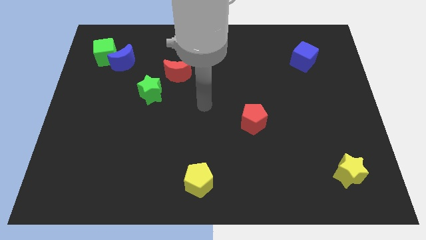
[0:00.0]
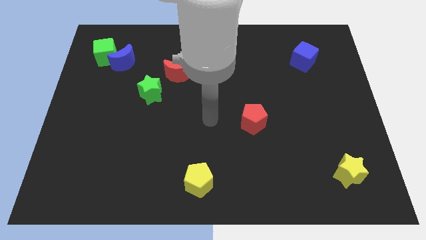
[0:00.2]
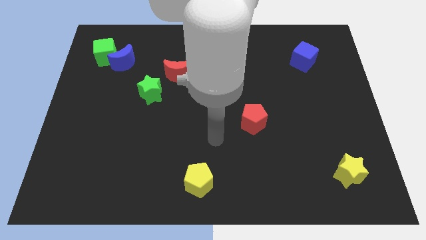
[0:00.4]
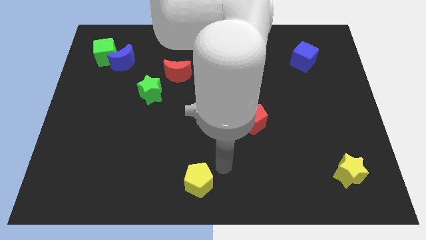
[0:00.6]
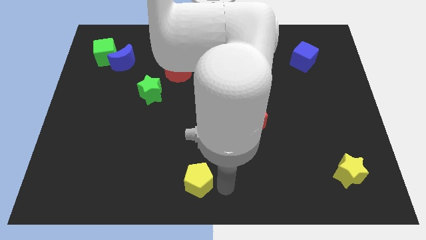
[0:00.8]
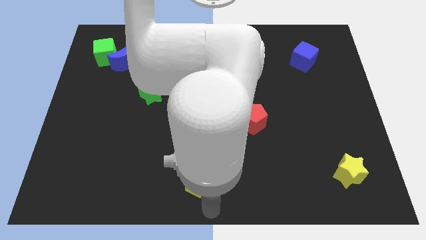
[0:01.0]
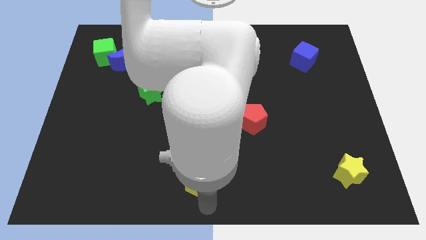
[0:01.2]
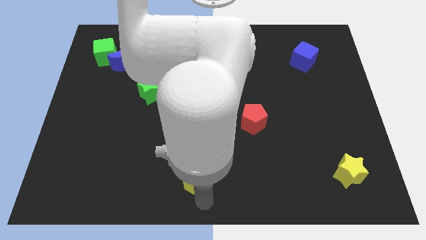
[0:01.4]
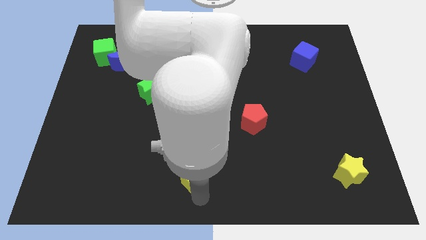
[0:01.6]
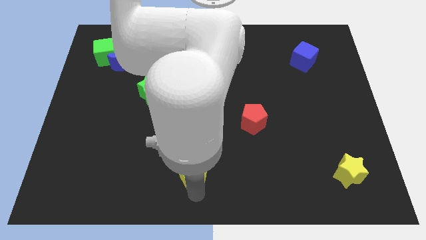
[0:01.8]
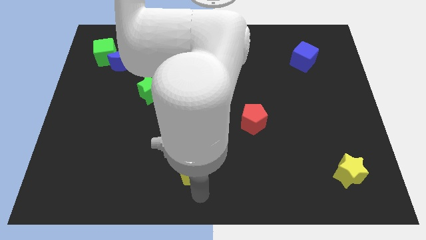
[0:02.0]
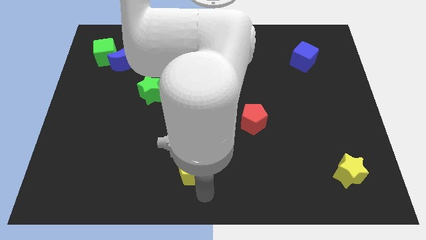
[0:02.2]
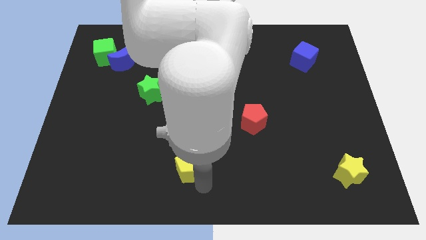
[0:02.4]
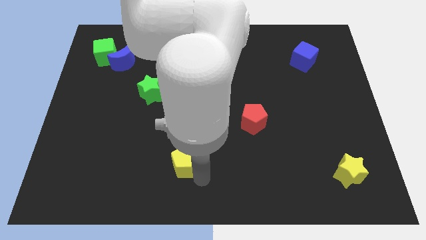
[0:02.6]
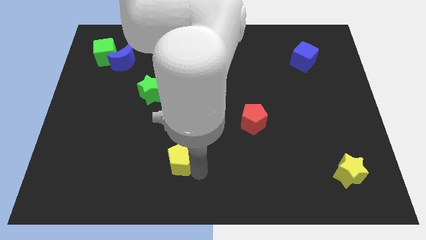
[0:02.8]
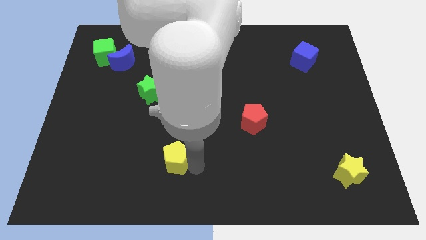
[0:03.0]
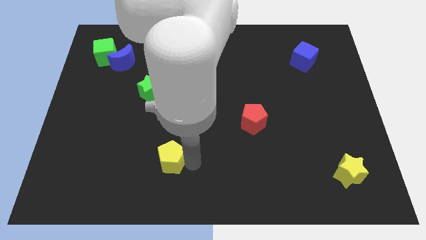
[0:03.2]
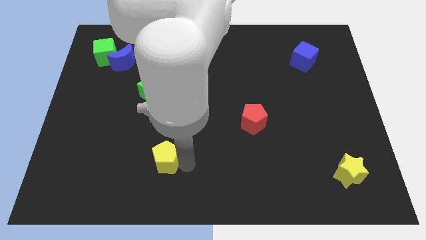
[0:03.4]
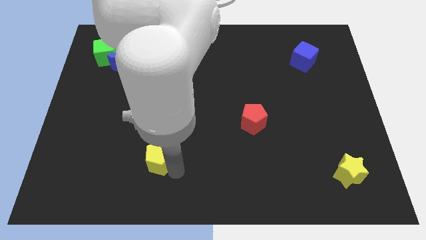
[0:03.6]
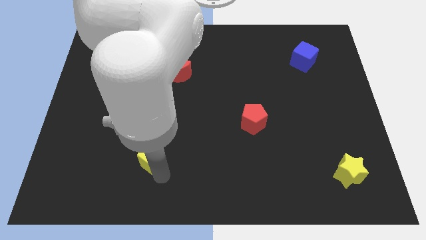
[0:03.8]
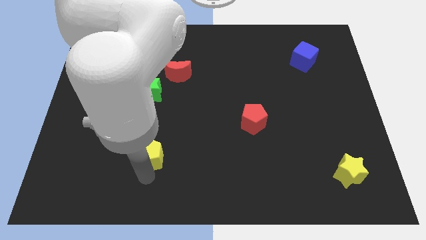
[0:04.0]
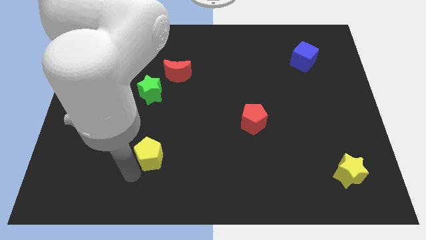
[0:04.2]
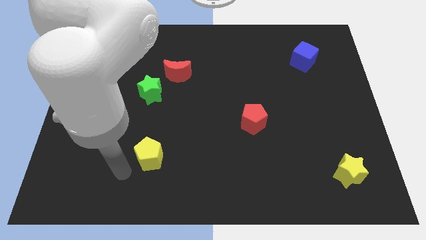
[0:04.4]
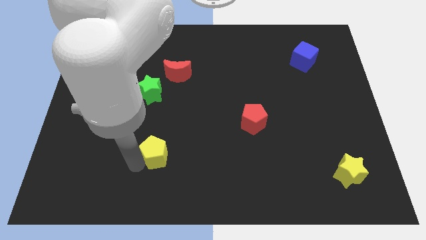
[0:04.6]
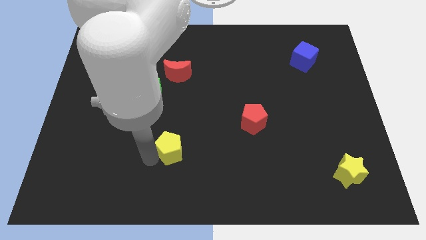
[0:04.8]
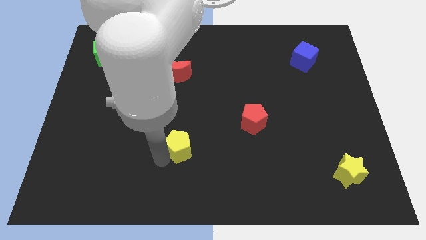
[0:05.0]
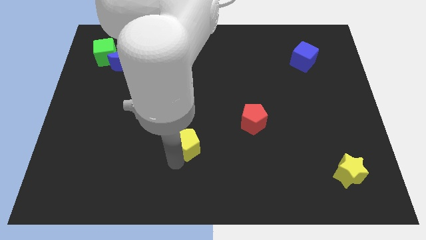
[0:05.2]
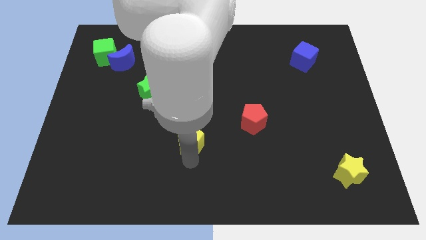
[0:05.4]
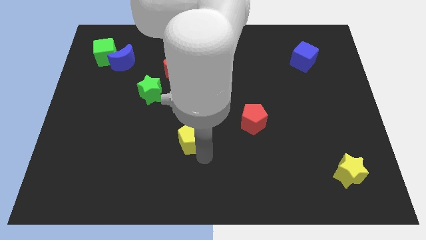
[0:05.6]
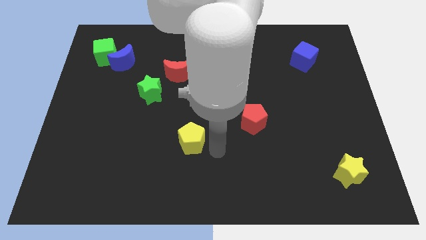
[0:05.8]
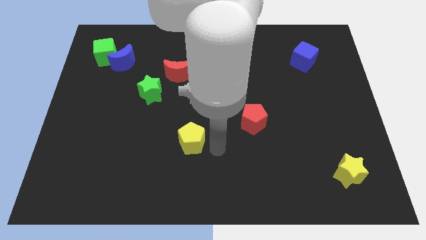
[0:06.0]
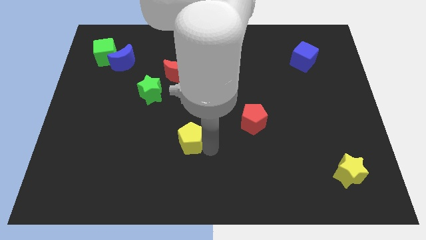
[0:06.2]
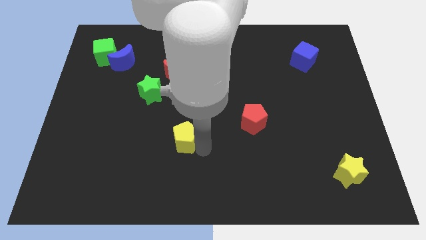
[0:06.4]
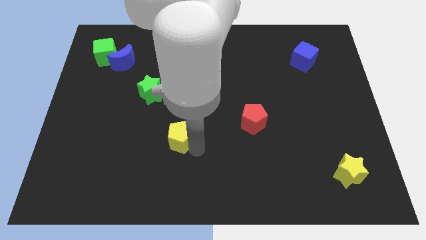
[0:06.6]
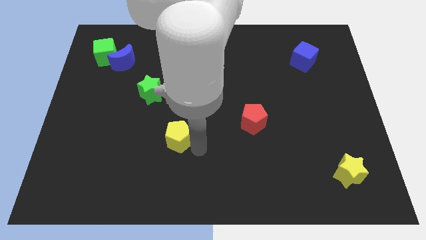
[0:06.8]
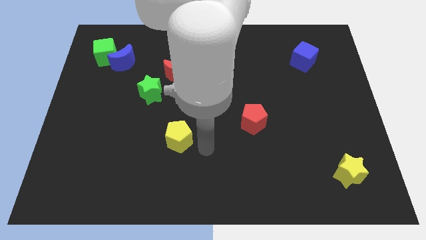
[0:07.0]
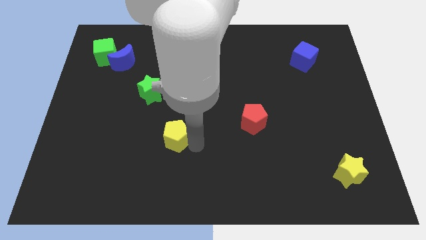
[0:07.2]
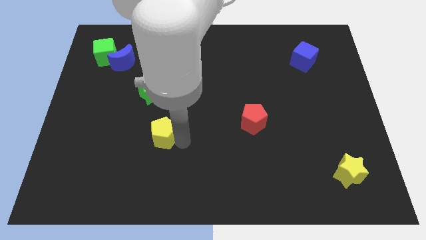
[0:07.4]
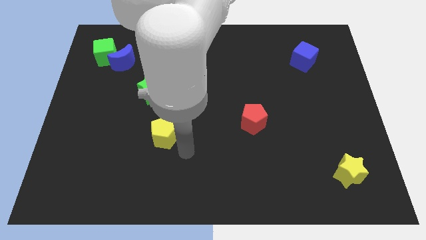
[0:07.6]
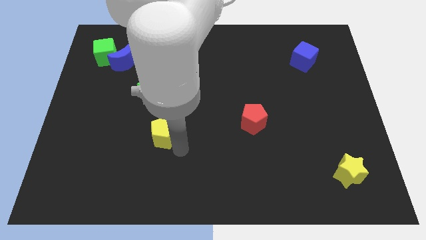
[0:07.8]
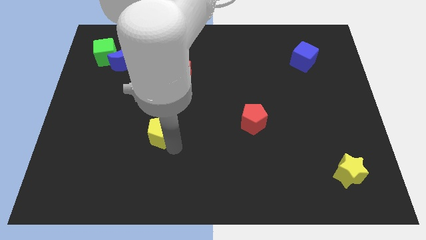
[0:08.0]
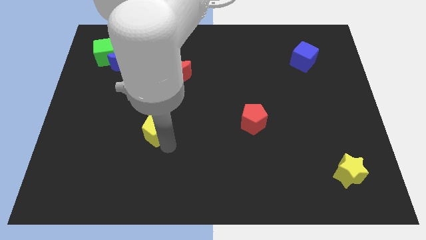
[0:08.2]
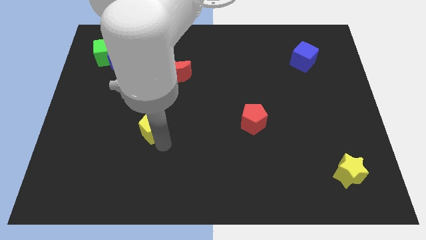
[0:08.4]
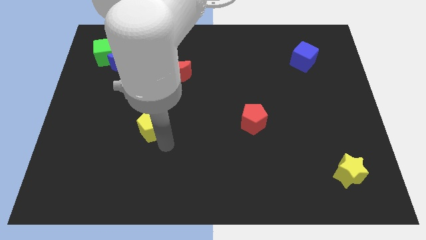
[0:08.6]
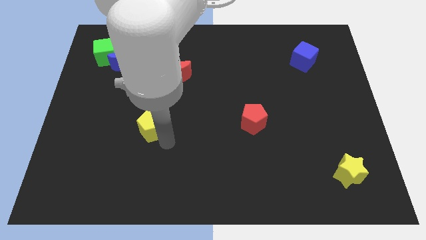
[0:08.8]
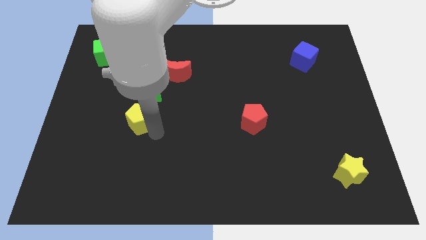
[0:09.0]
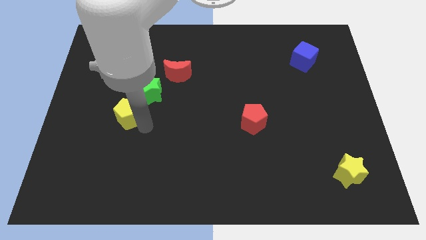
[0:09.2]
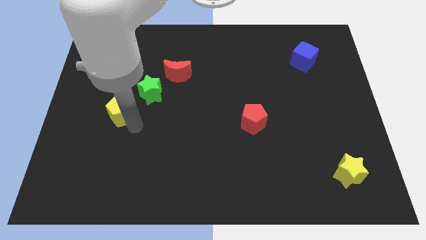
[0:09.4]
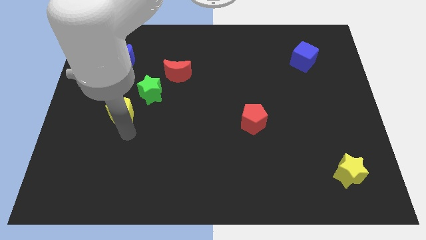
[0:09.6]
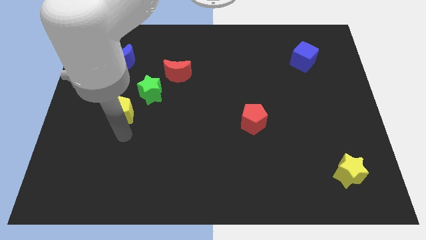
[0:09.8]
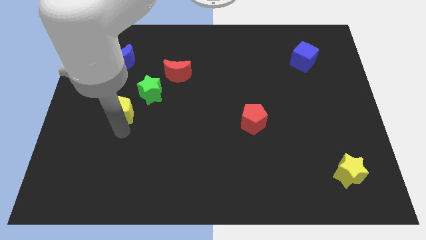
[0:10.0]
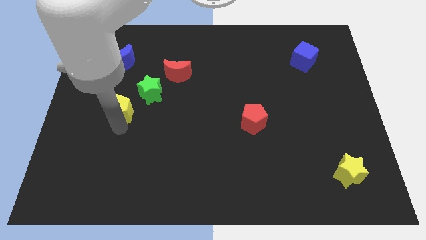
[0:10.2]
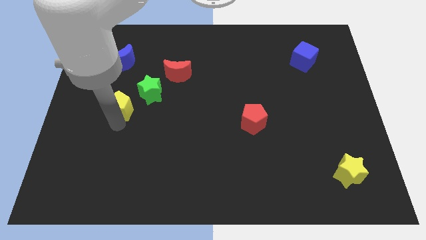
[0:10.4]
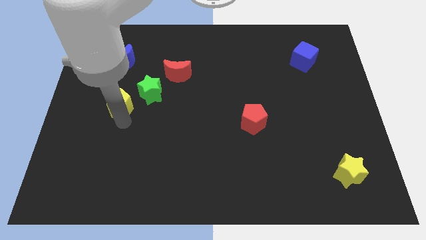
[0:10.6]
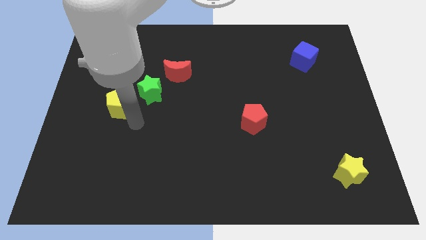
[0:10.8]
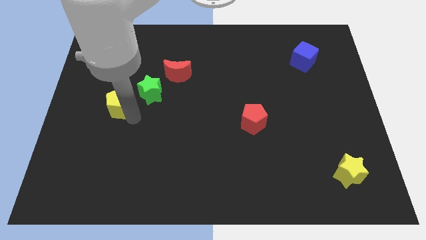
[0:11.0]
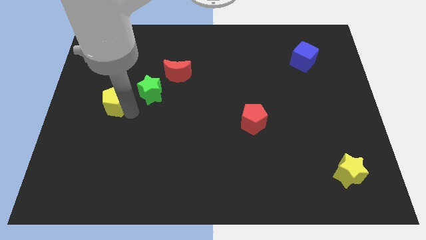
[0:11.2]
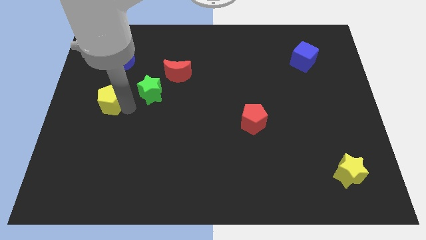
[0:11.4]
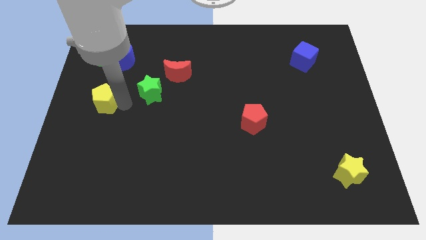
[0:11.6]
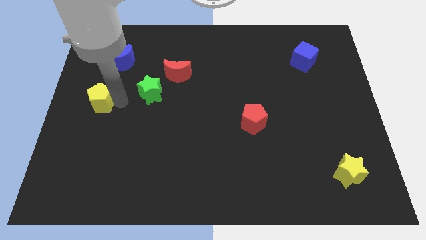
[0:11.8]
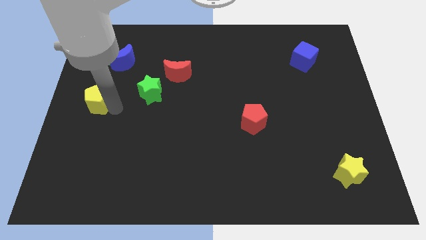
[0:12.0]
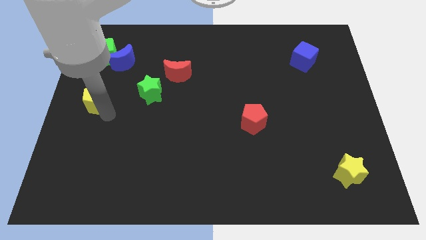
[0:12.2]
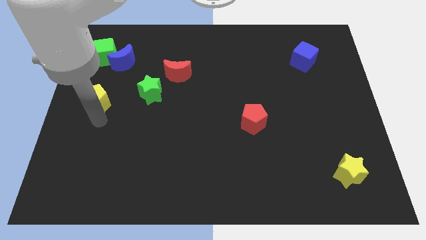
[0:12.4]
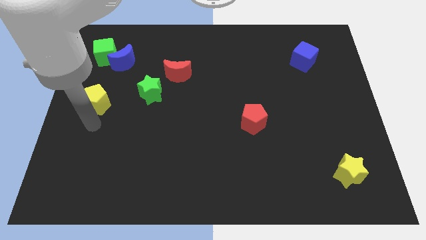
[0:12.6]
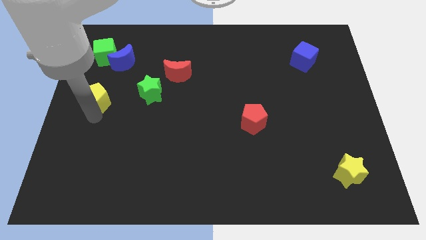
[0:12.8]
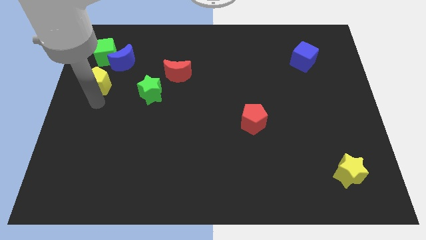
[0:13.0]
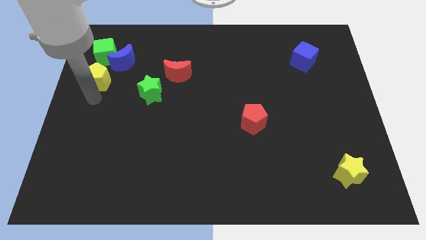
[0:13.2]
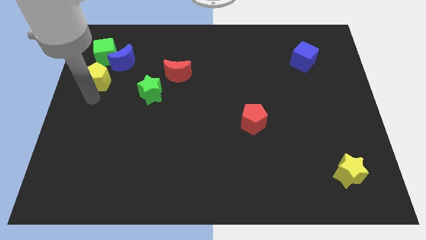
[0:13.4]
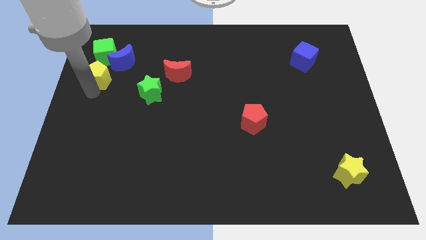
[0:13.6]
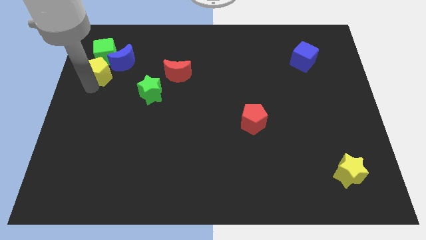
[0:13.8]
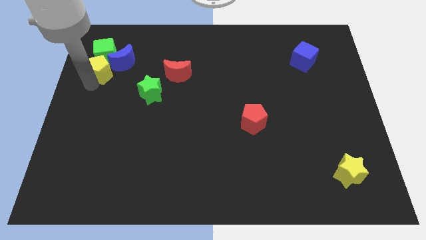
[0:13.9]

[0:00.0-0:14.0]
slide the yellow pentagon to the green cube
